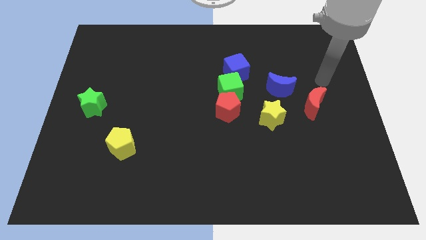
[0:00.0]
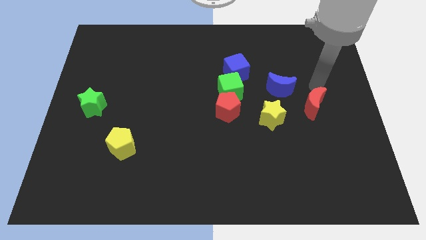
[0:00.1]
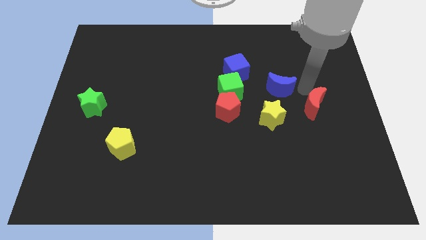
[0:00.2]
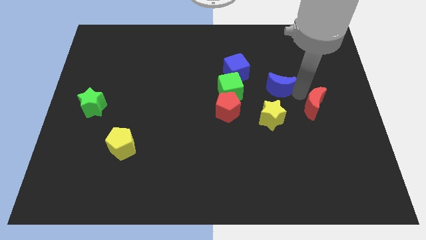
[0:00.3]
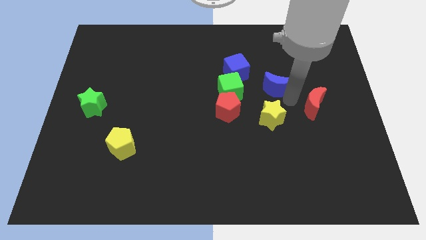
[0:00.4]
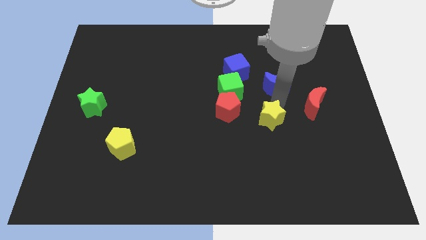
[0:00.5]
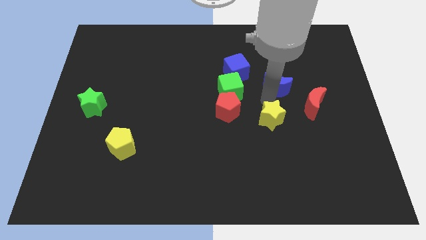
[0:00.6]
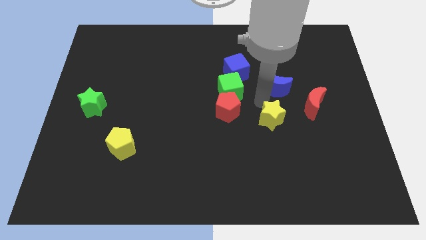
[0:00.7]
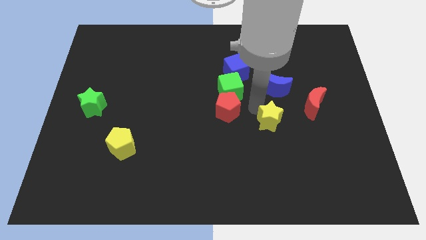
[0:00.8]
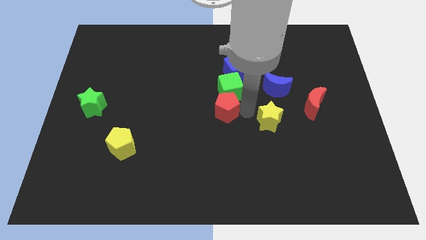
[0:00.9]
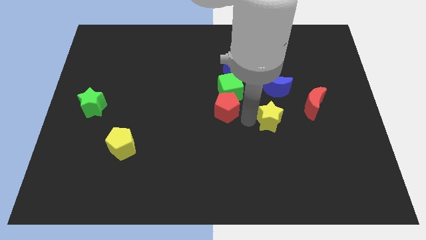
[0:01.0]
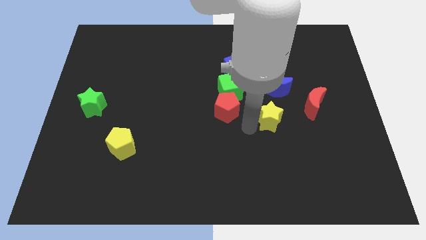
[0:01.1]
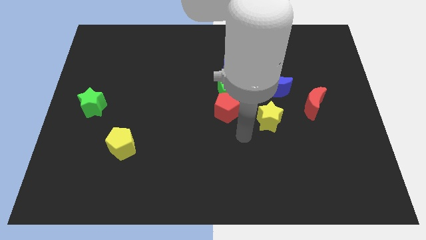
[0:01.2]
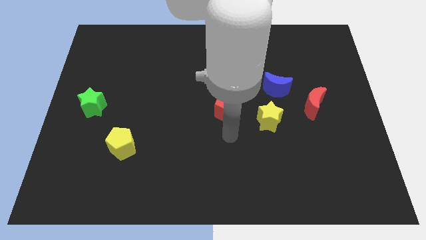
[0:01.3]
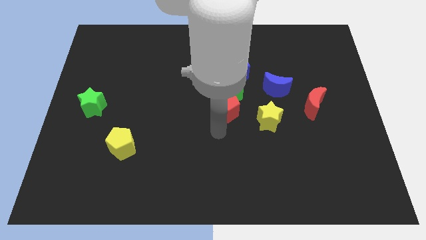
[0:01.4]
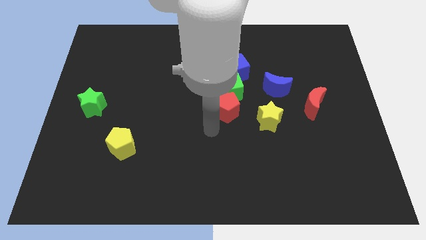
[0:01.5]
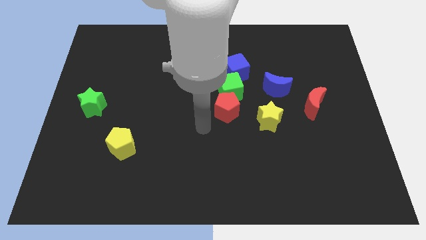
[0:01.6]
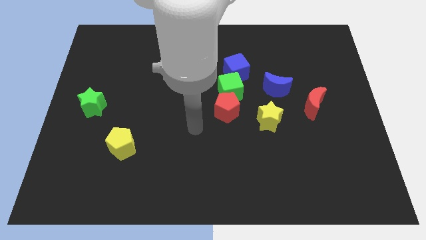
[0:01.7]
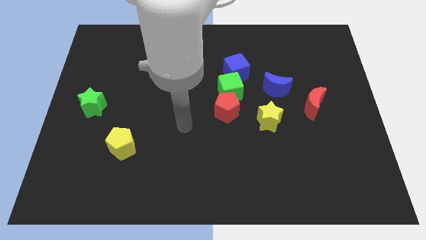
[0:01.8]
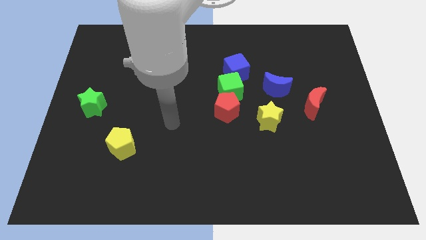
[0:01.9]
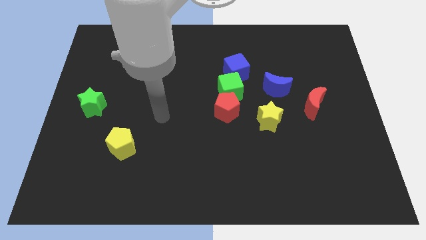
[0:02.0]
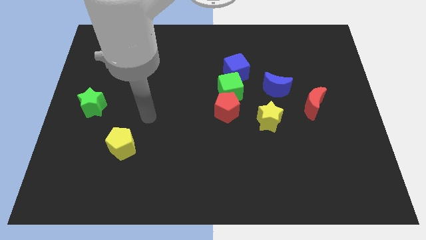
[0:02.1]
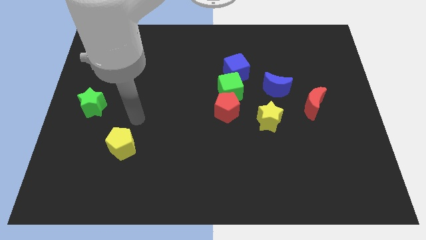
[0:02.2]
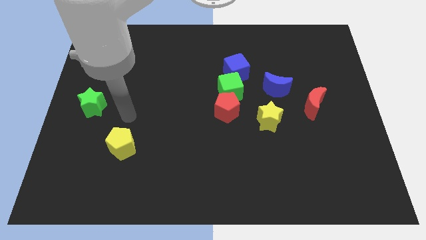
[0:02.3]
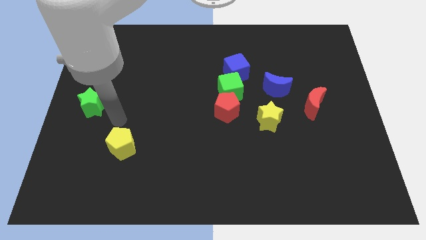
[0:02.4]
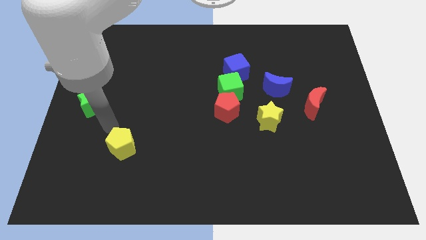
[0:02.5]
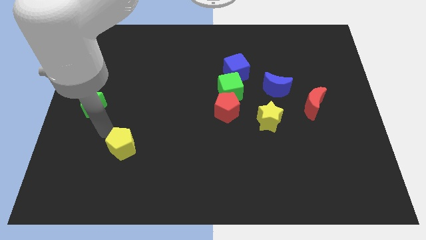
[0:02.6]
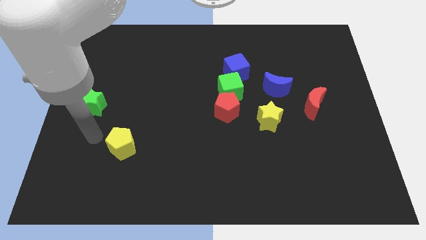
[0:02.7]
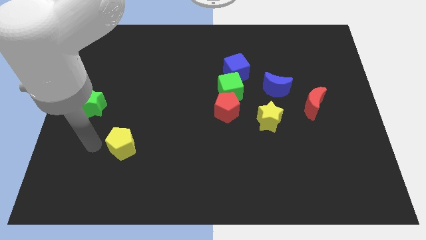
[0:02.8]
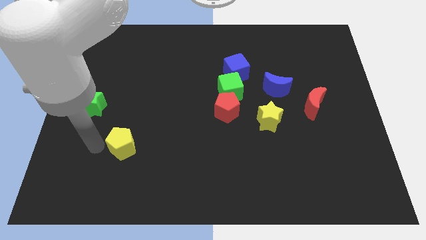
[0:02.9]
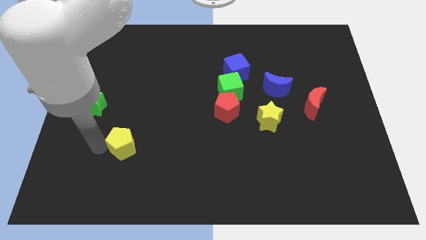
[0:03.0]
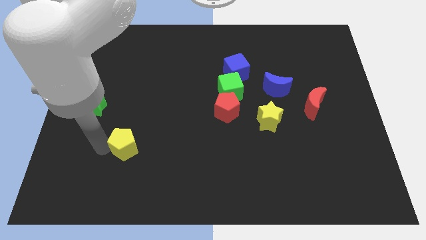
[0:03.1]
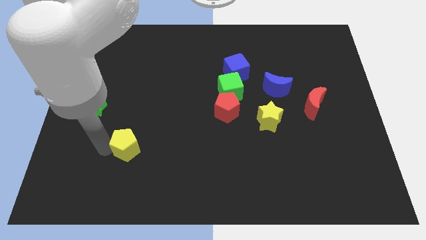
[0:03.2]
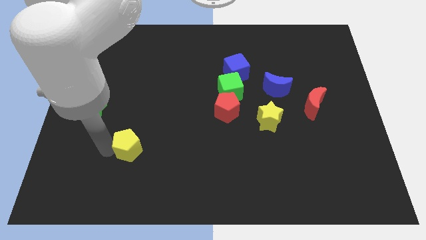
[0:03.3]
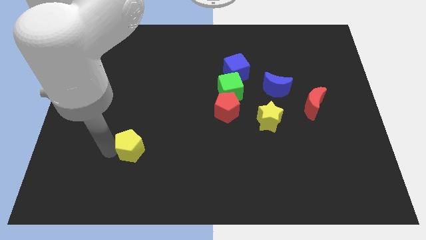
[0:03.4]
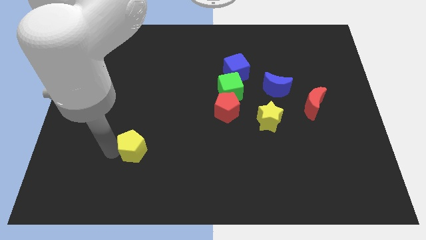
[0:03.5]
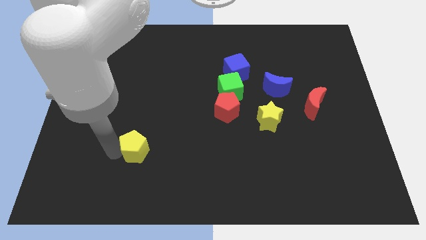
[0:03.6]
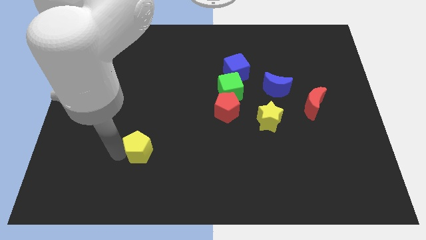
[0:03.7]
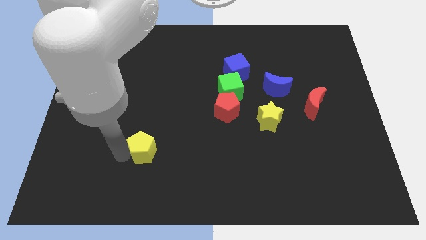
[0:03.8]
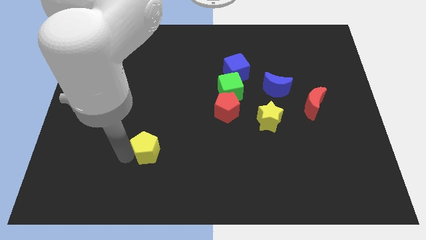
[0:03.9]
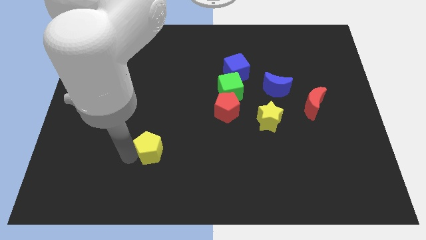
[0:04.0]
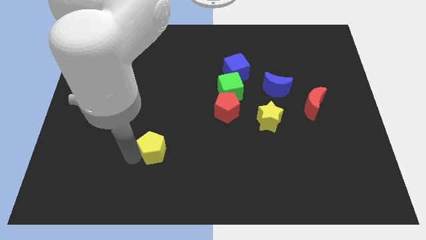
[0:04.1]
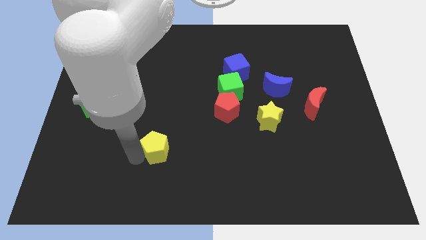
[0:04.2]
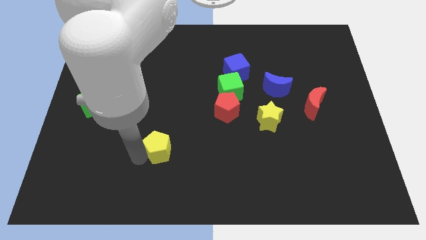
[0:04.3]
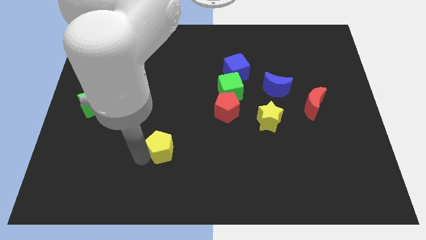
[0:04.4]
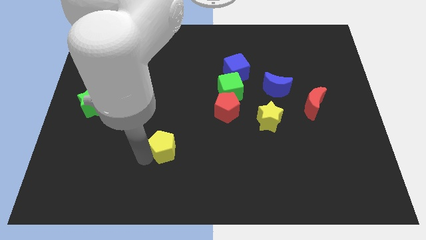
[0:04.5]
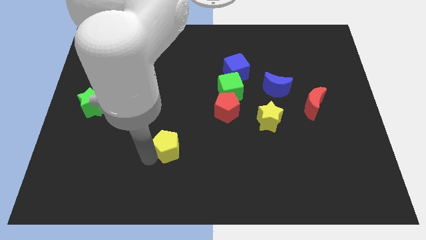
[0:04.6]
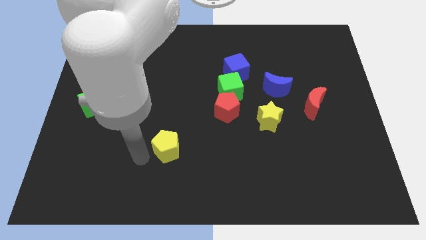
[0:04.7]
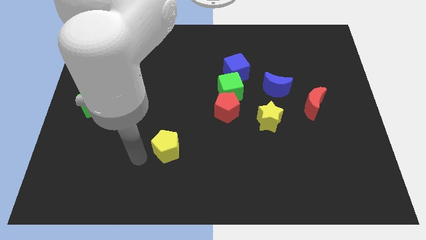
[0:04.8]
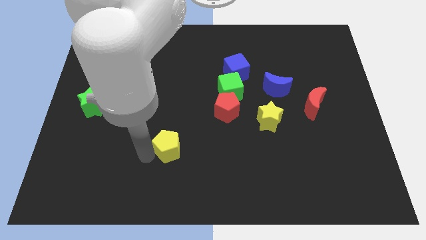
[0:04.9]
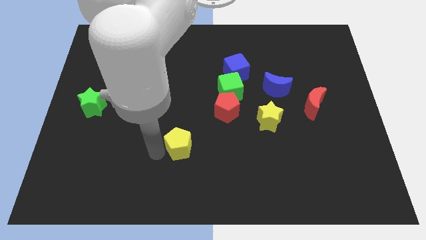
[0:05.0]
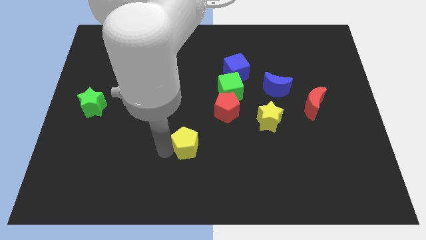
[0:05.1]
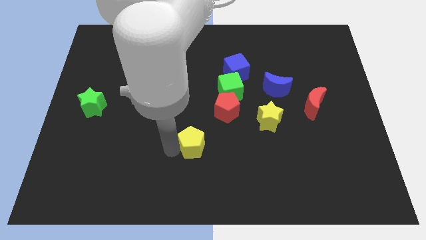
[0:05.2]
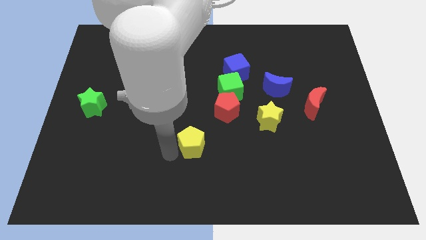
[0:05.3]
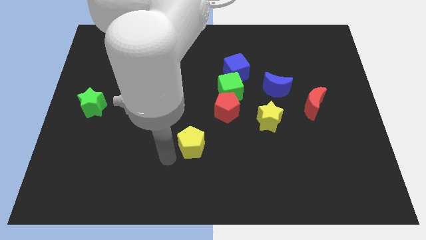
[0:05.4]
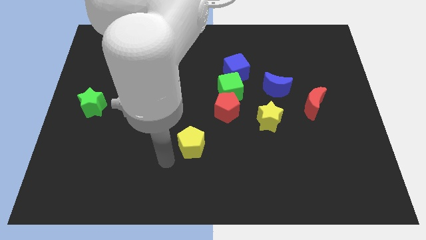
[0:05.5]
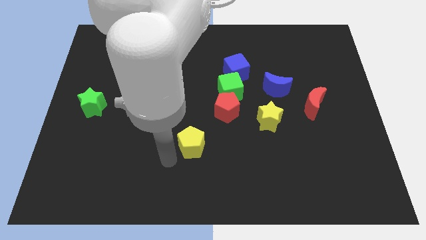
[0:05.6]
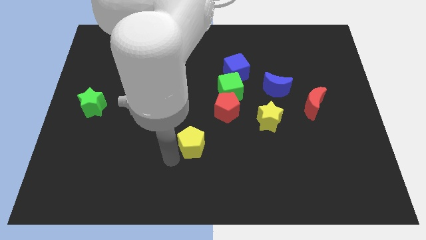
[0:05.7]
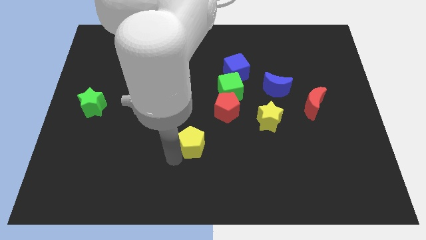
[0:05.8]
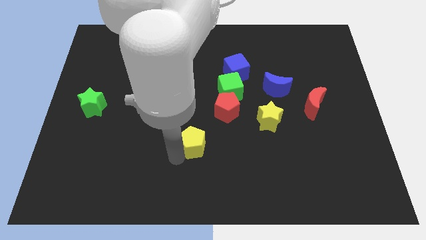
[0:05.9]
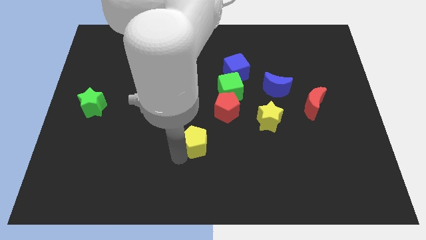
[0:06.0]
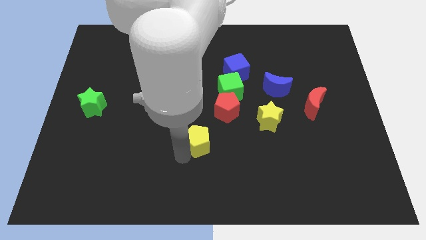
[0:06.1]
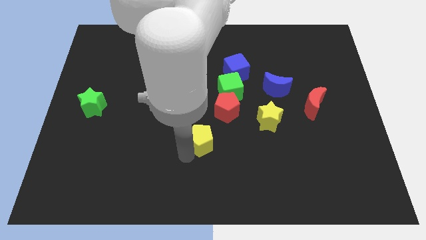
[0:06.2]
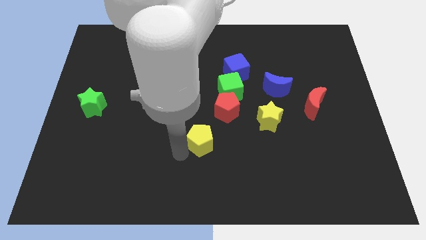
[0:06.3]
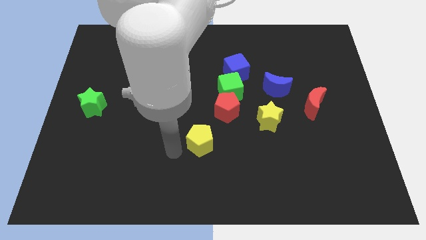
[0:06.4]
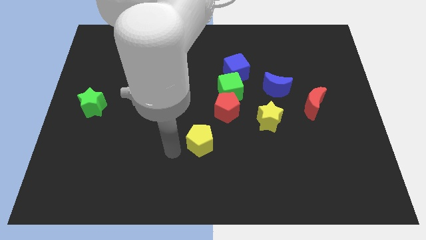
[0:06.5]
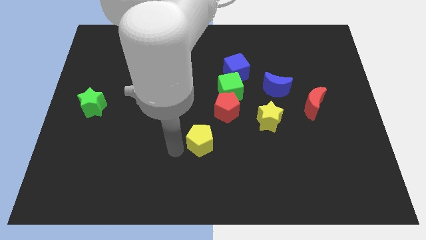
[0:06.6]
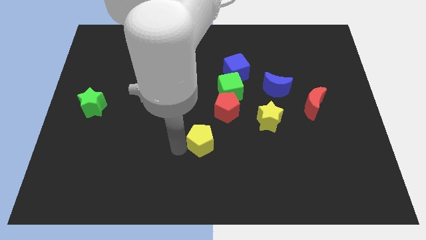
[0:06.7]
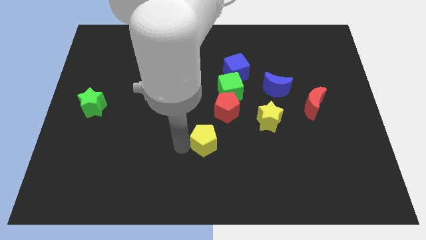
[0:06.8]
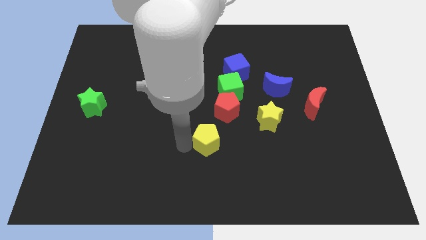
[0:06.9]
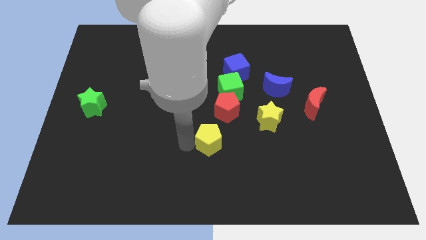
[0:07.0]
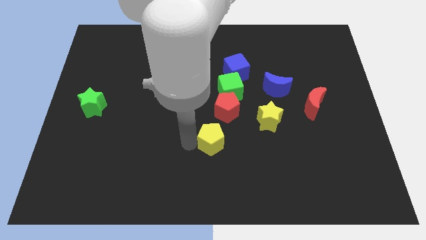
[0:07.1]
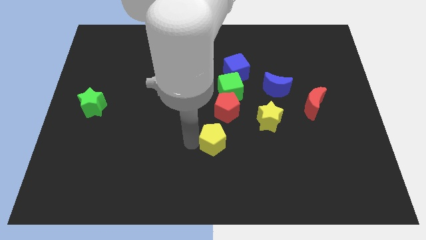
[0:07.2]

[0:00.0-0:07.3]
move the yellow pentagon right

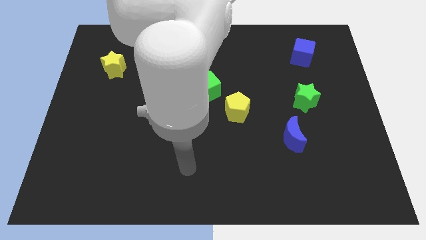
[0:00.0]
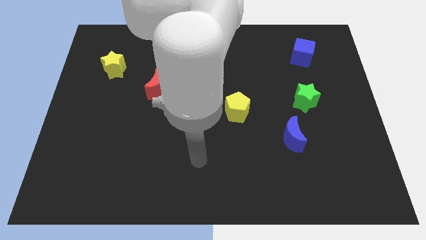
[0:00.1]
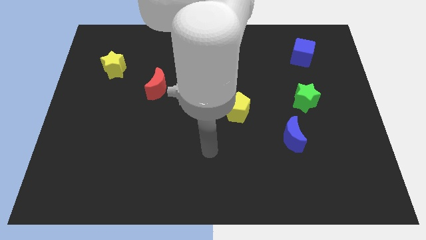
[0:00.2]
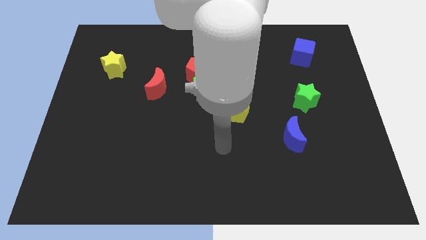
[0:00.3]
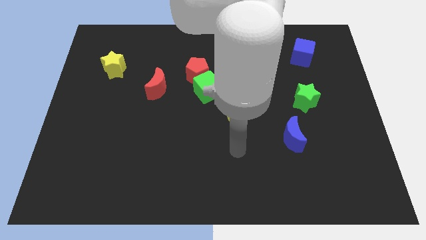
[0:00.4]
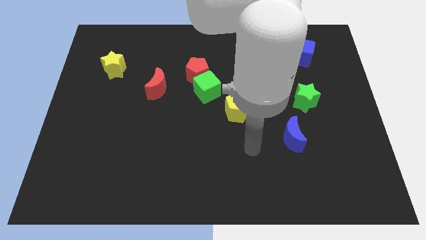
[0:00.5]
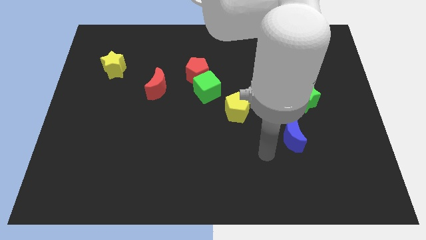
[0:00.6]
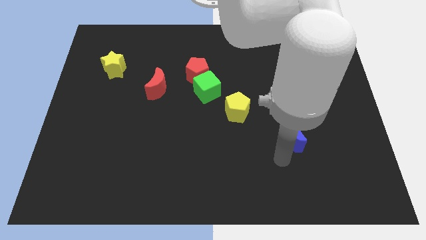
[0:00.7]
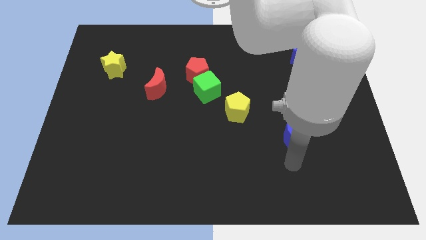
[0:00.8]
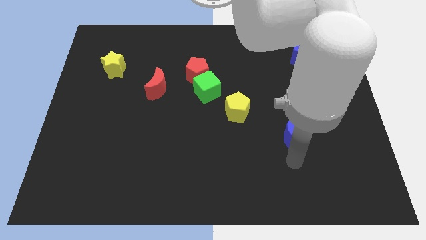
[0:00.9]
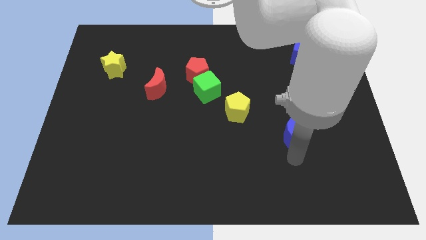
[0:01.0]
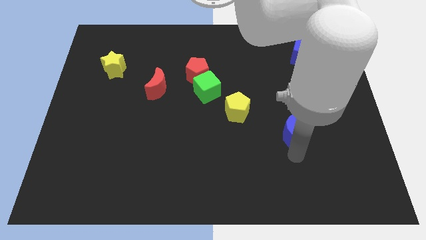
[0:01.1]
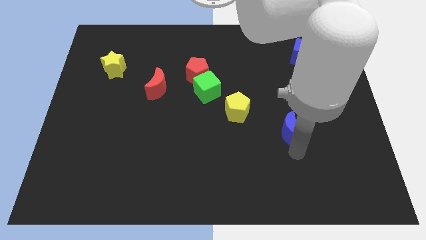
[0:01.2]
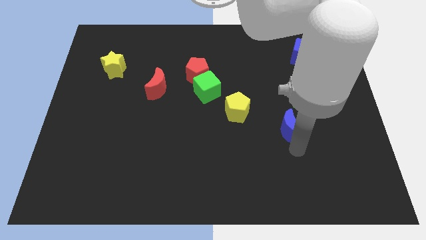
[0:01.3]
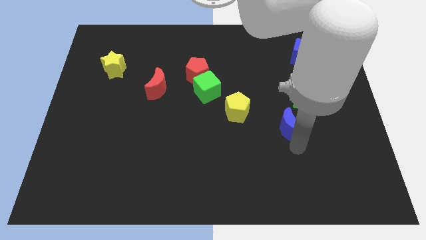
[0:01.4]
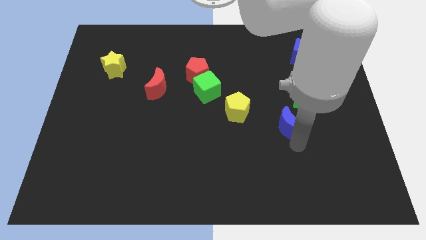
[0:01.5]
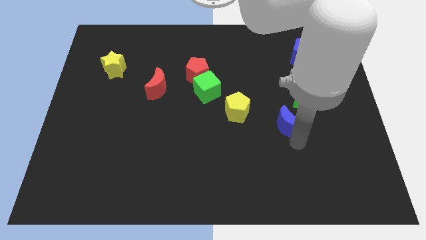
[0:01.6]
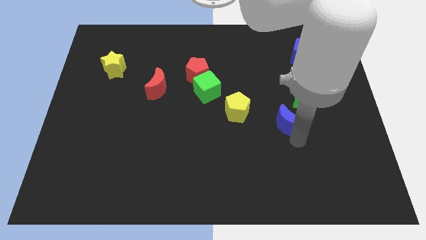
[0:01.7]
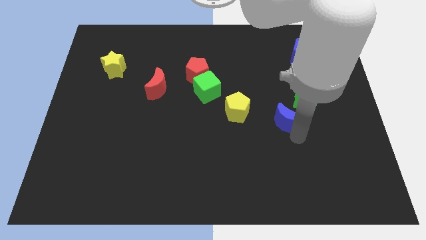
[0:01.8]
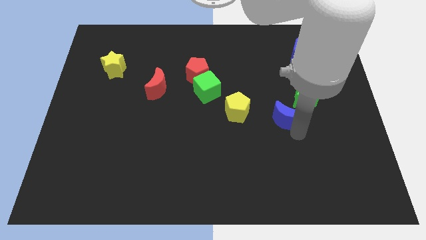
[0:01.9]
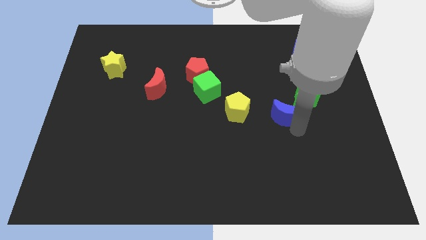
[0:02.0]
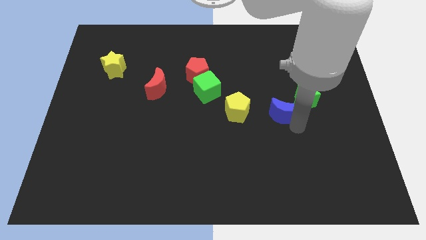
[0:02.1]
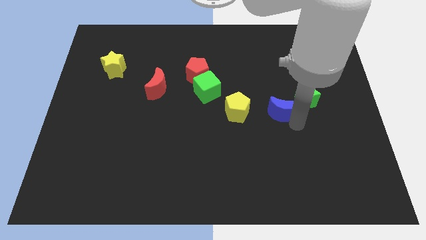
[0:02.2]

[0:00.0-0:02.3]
push the blue moon up somewhat
